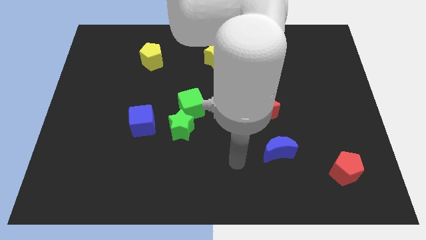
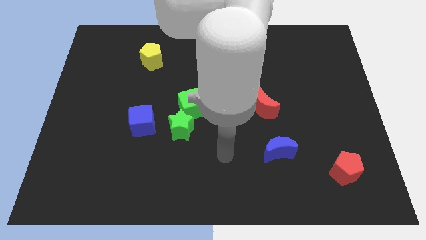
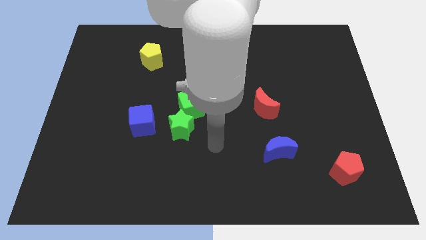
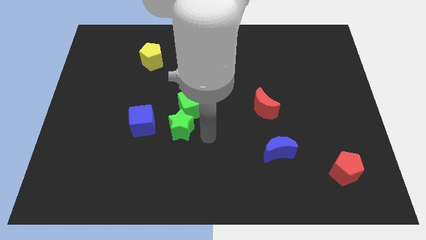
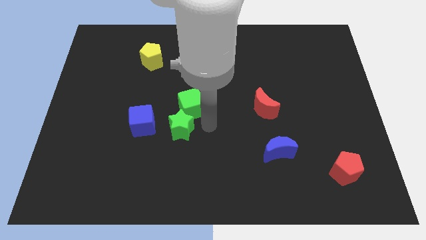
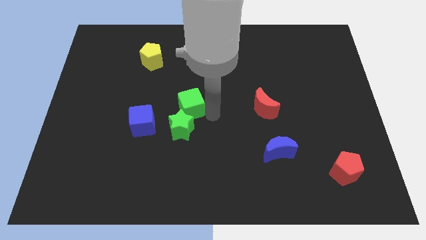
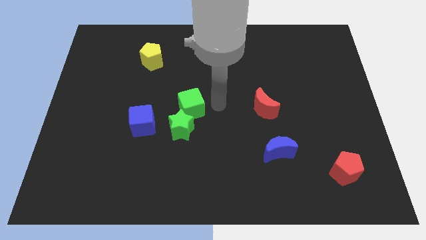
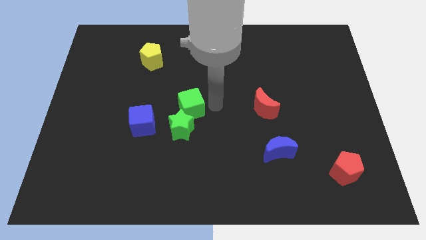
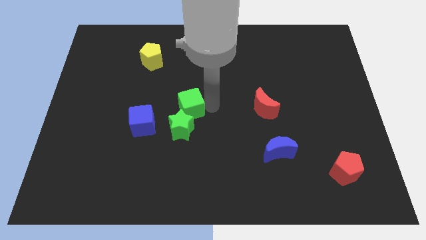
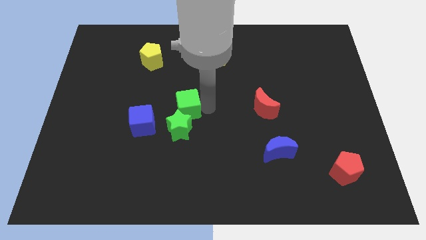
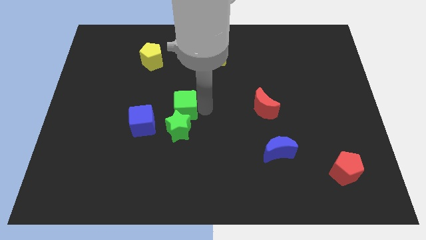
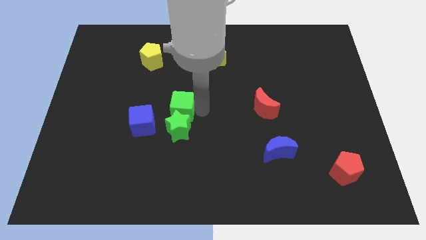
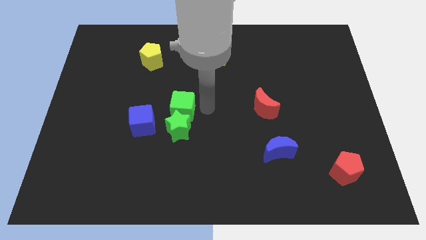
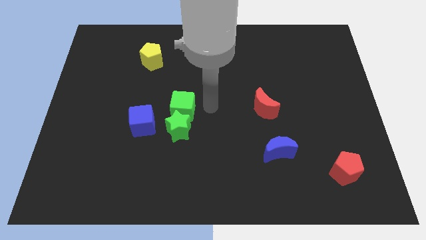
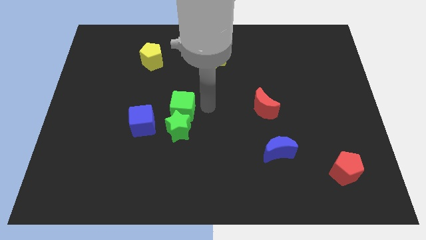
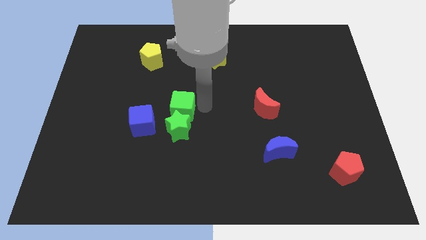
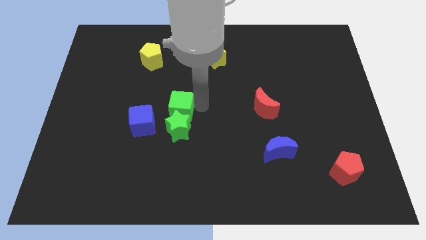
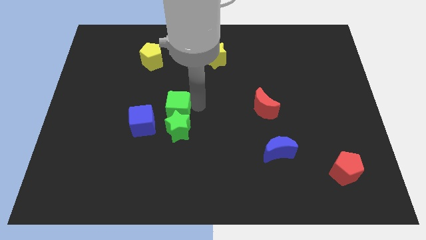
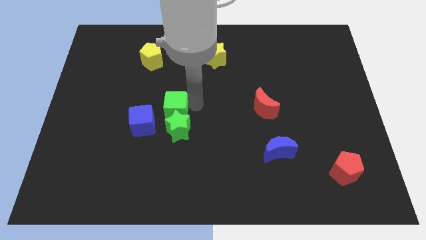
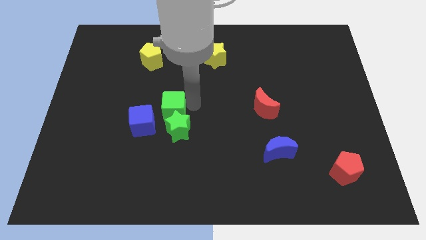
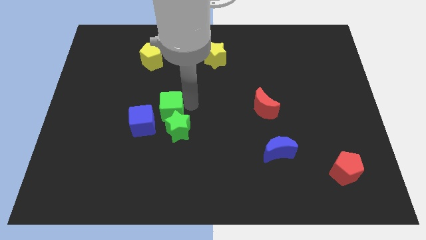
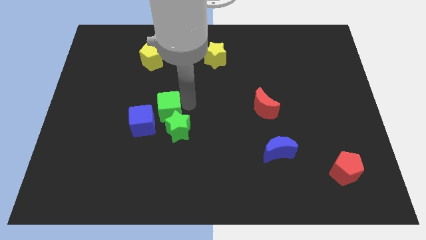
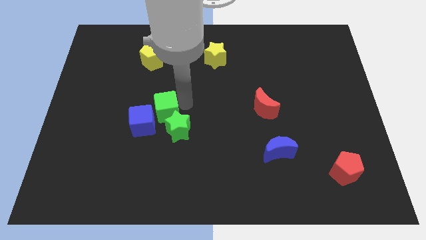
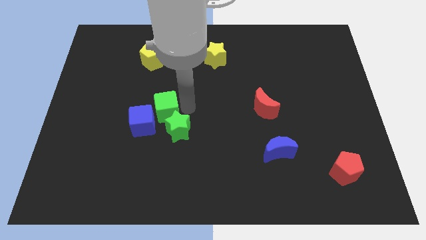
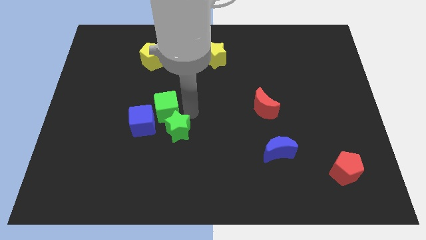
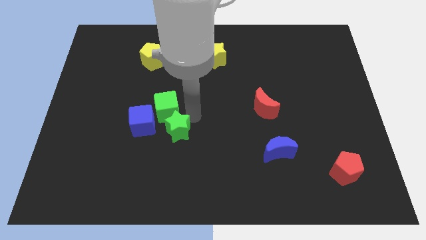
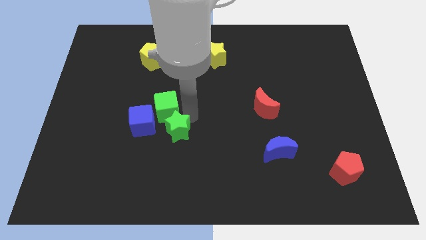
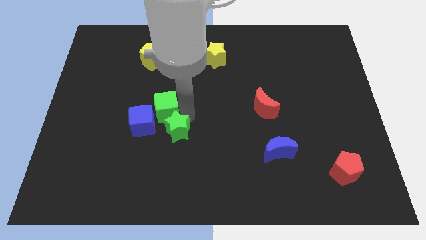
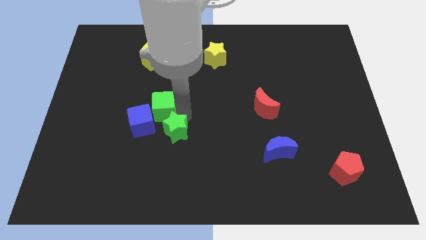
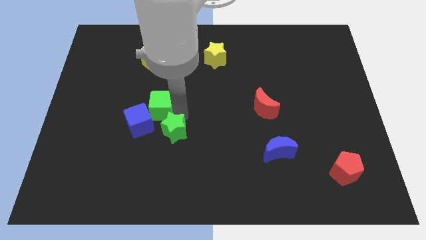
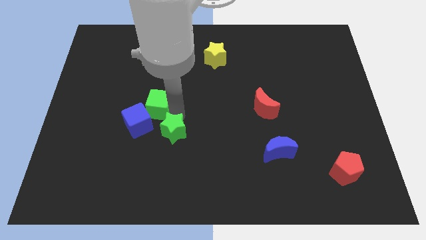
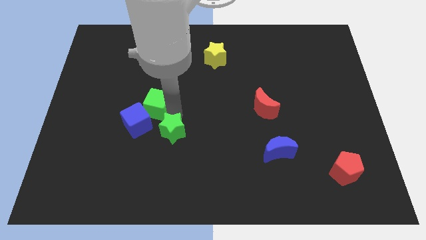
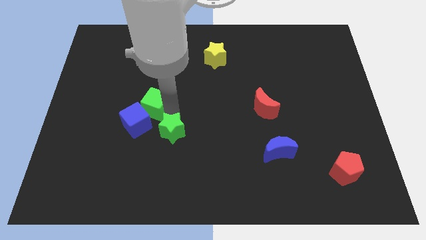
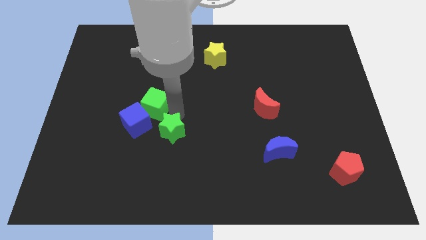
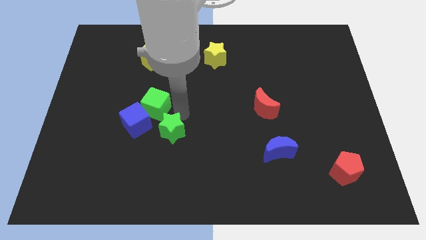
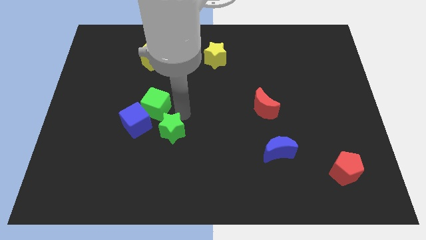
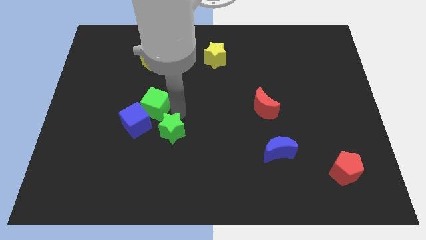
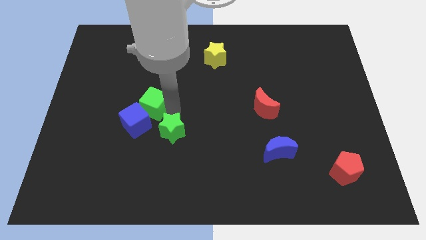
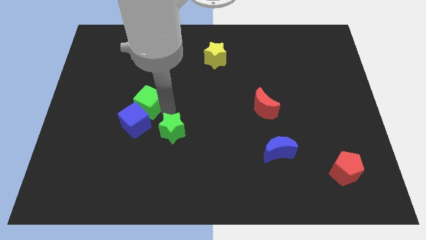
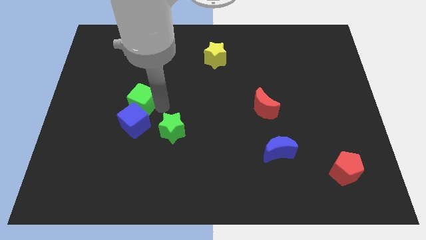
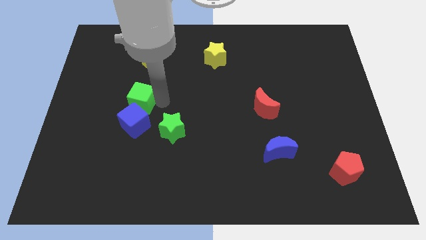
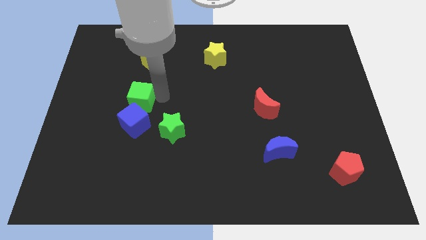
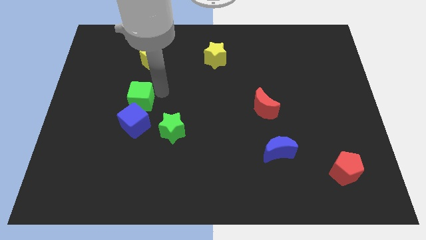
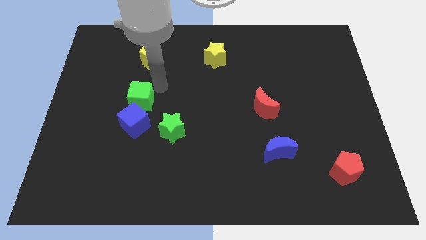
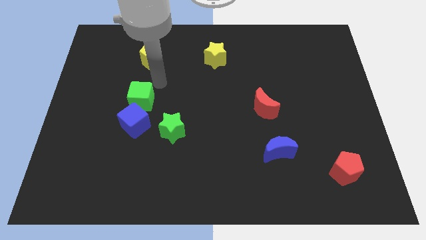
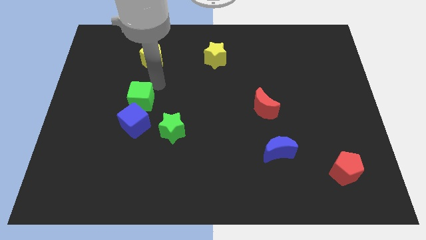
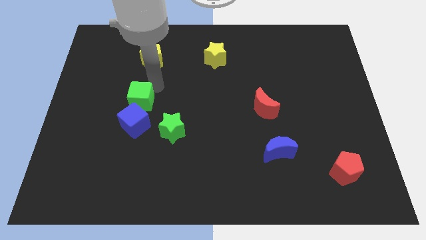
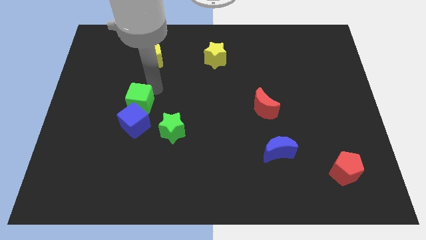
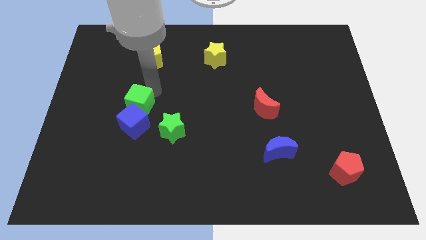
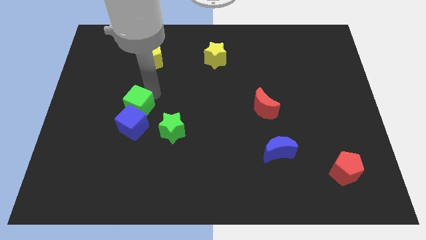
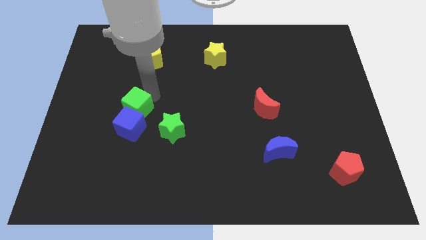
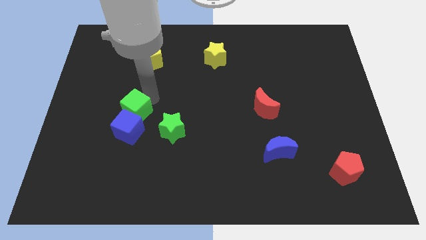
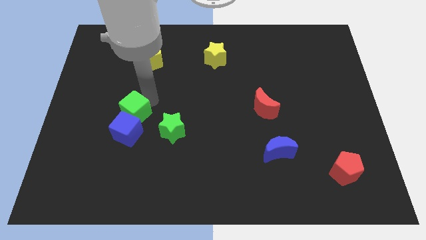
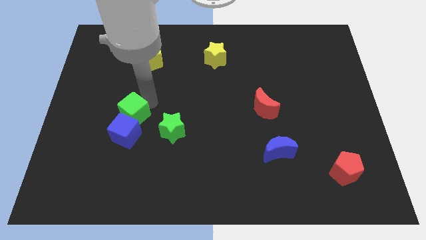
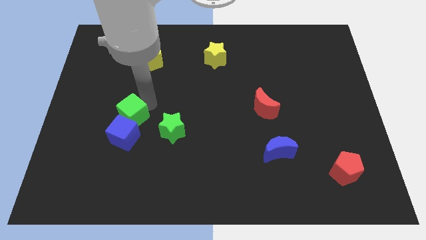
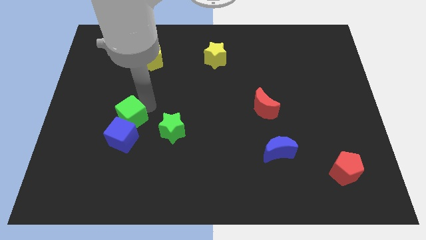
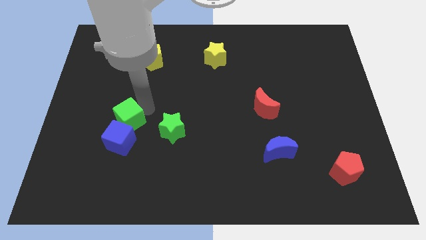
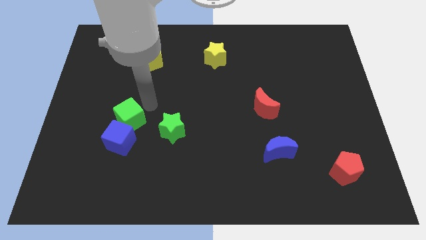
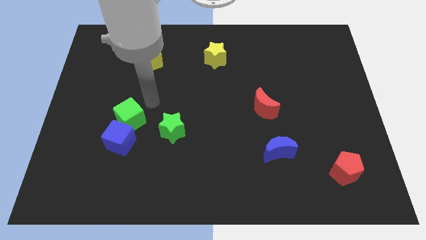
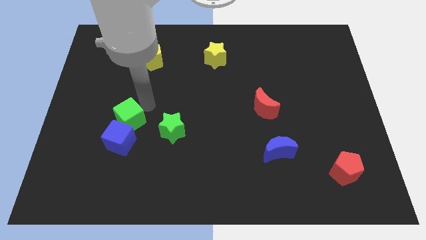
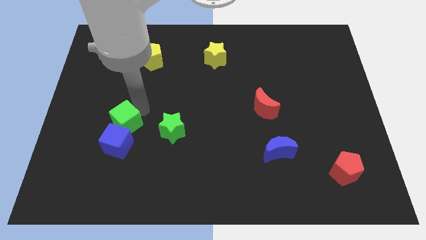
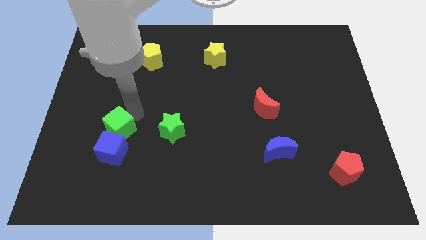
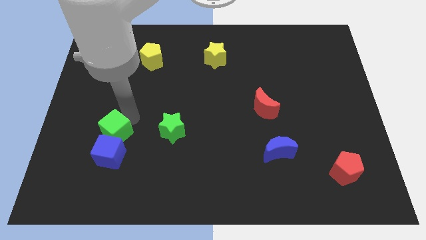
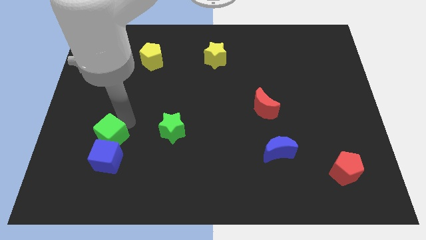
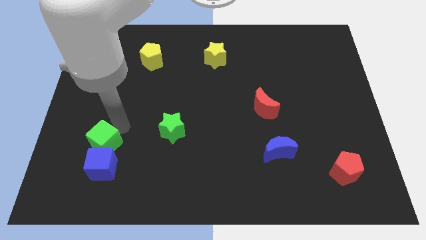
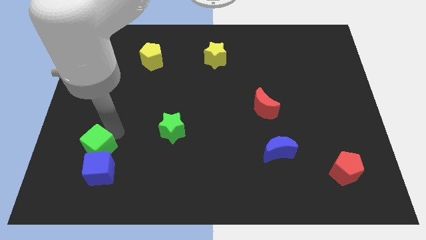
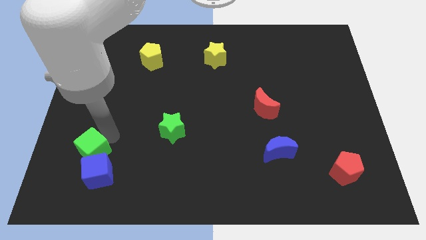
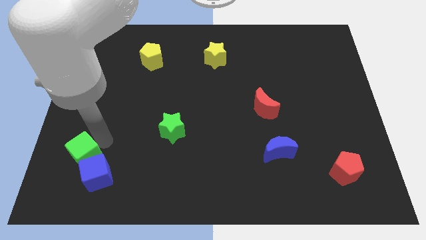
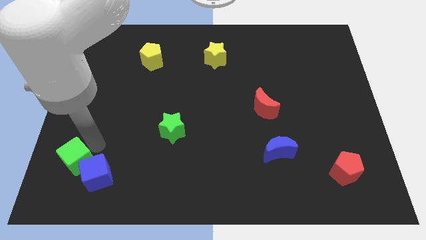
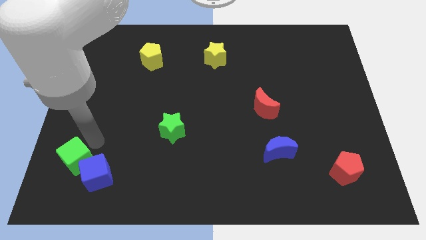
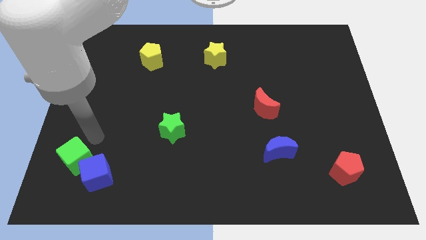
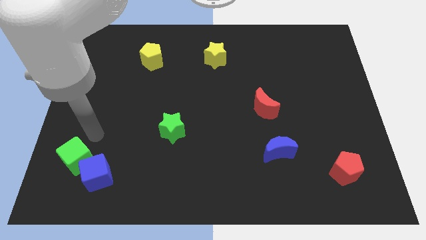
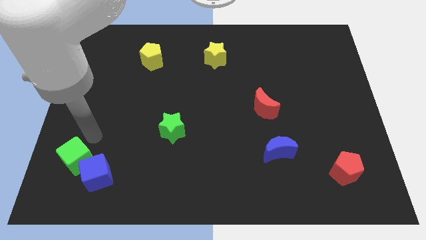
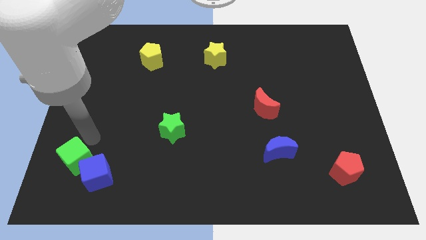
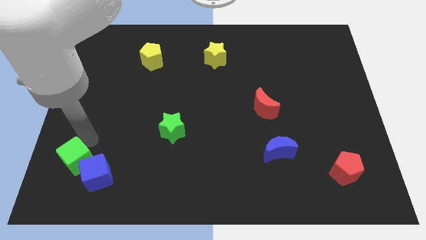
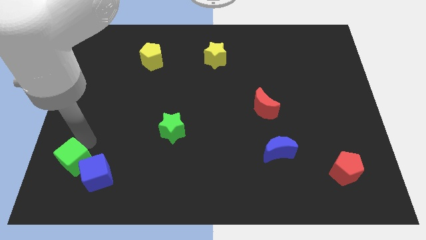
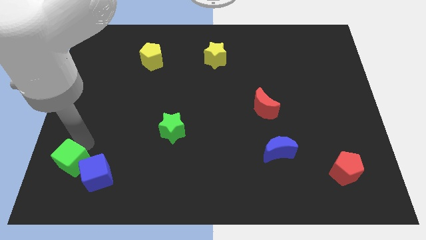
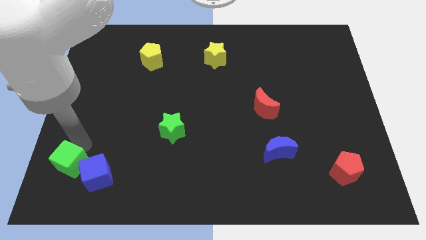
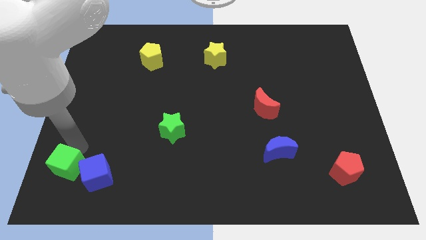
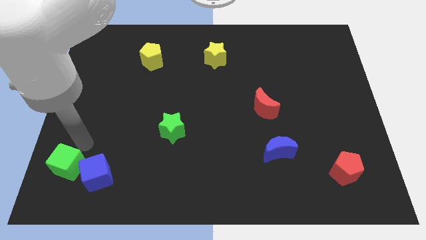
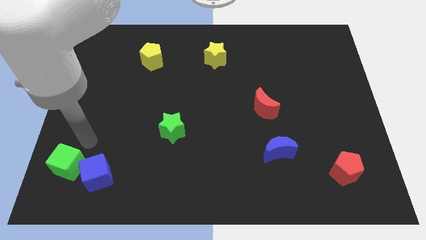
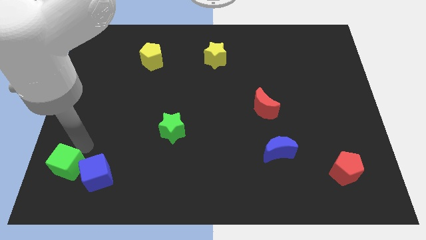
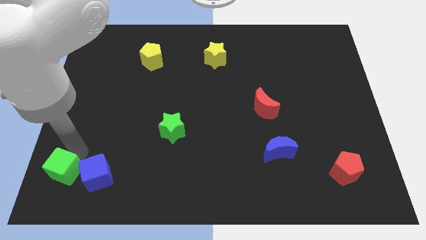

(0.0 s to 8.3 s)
put the green cube to the lower left corner
